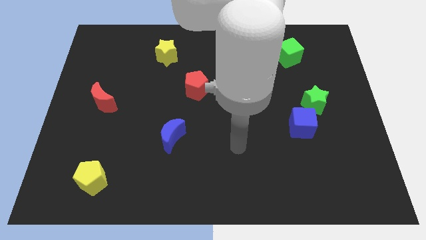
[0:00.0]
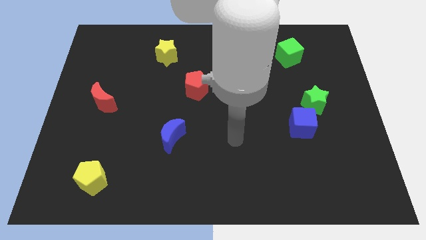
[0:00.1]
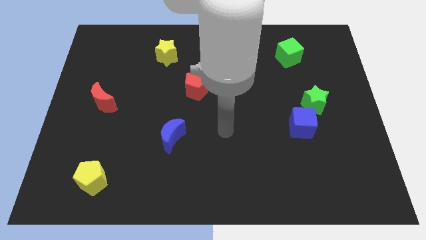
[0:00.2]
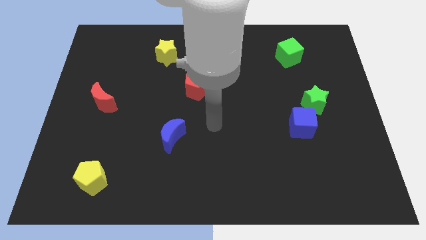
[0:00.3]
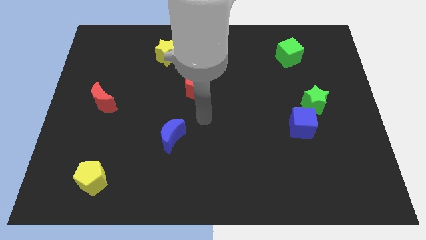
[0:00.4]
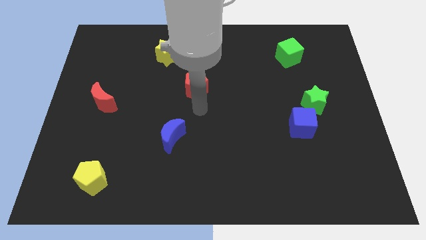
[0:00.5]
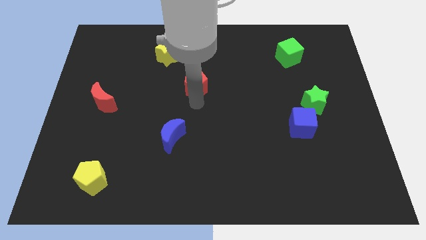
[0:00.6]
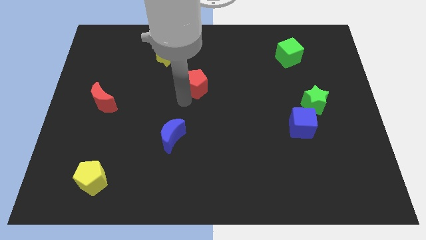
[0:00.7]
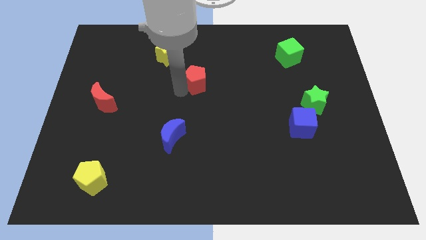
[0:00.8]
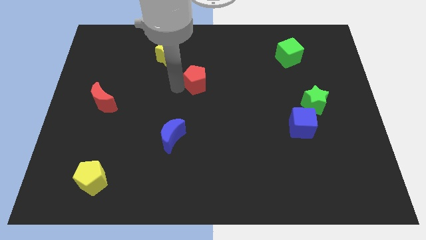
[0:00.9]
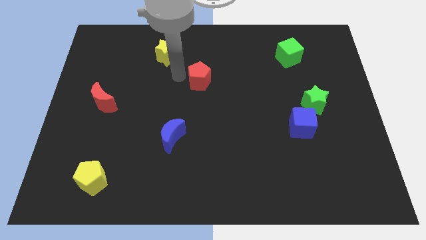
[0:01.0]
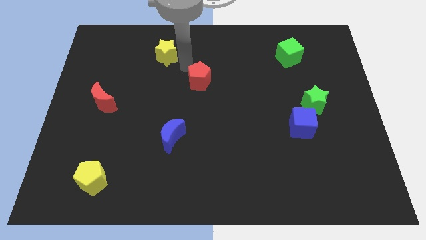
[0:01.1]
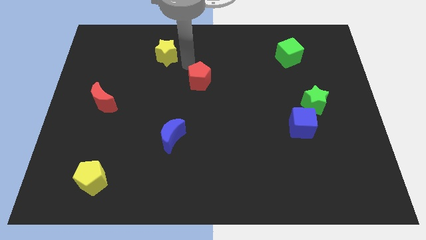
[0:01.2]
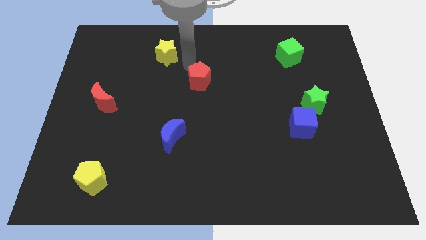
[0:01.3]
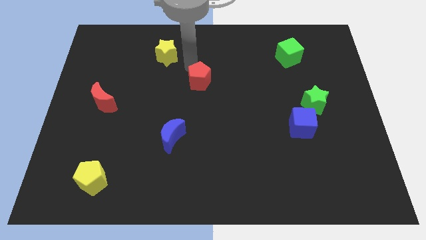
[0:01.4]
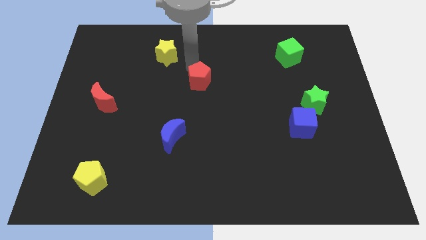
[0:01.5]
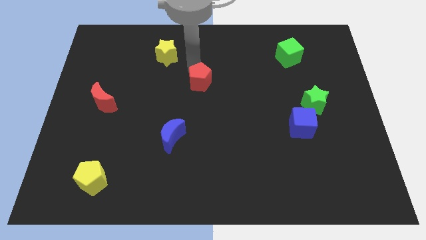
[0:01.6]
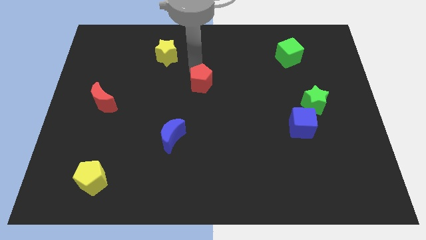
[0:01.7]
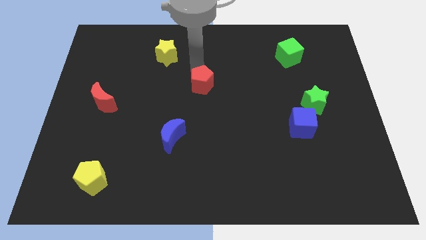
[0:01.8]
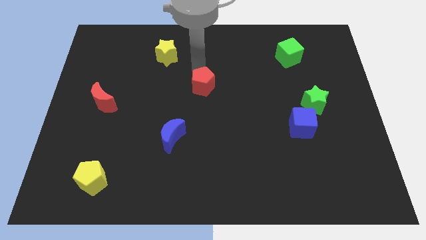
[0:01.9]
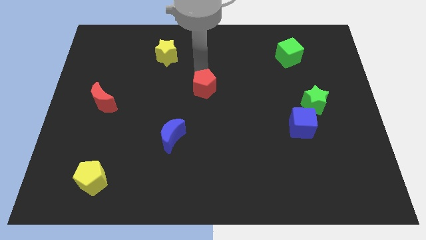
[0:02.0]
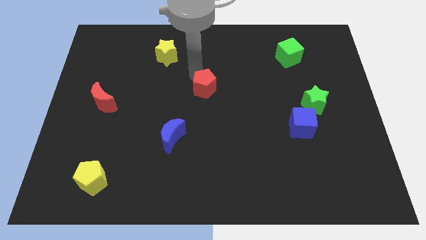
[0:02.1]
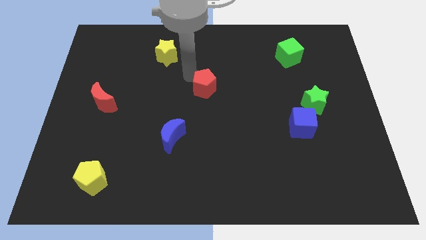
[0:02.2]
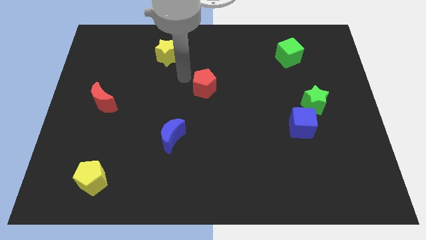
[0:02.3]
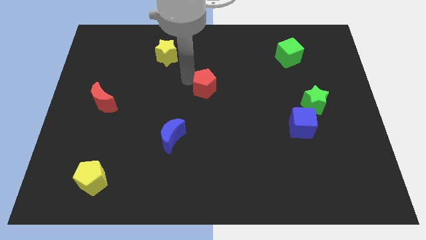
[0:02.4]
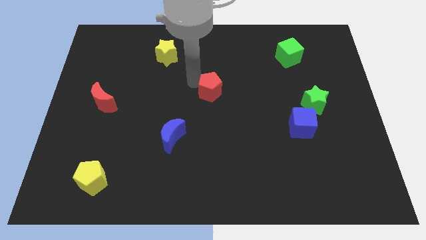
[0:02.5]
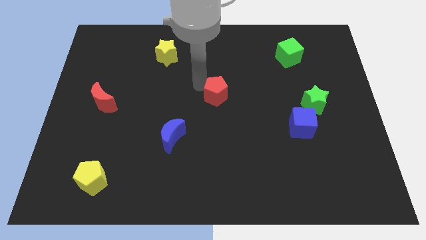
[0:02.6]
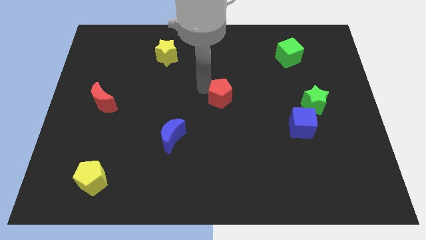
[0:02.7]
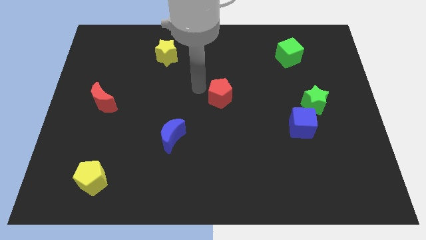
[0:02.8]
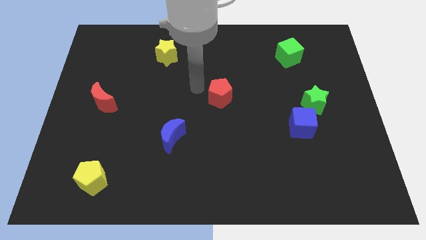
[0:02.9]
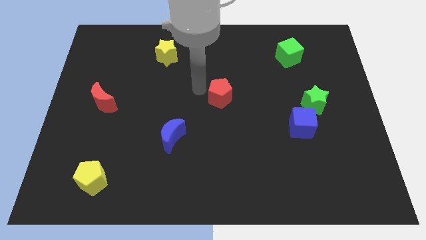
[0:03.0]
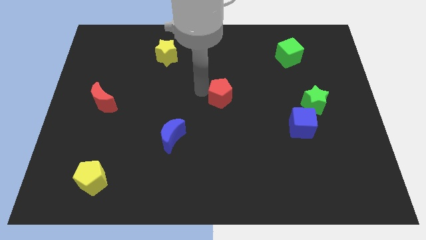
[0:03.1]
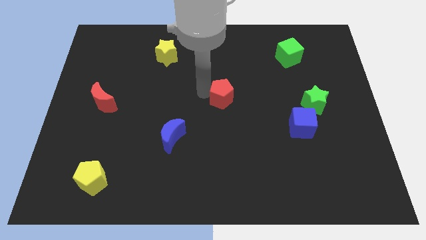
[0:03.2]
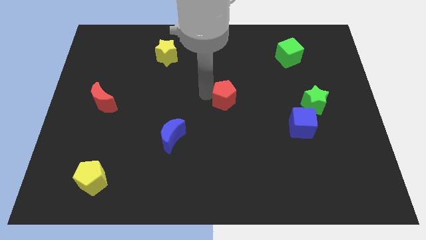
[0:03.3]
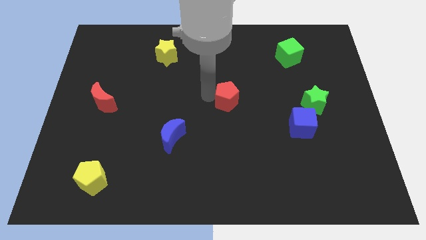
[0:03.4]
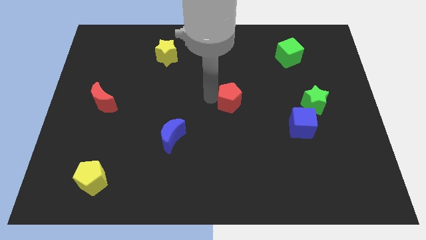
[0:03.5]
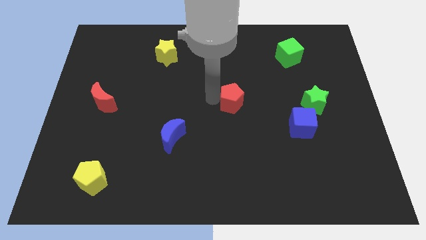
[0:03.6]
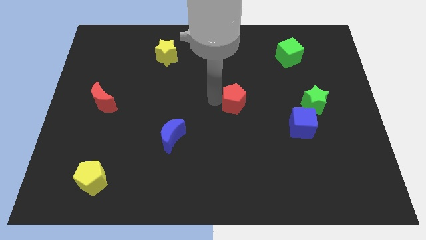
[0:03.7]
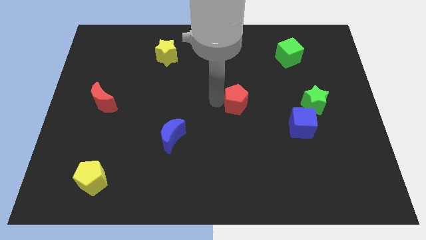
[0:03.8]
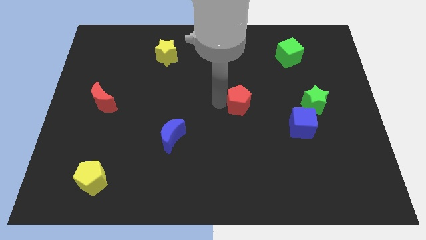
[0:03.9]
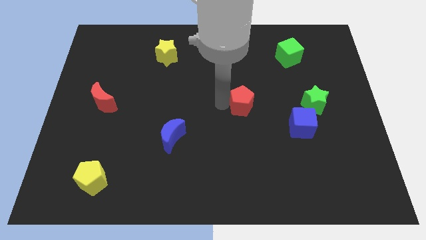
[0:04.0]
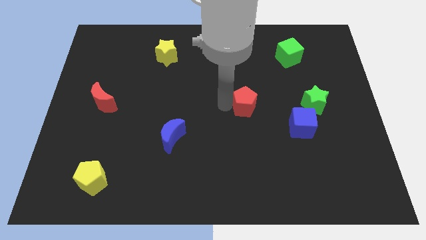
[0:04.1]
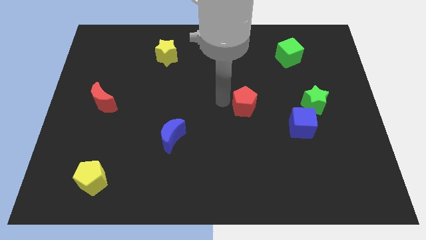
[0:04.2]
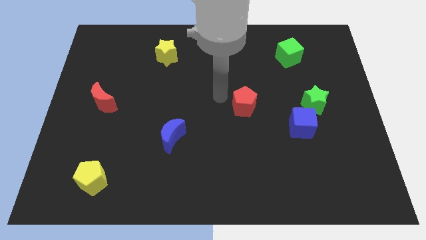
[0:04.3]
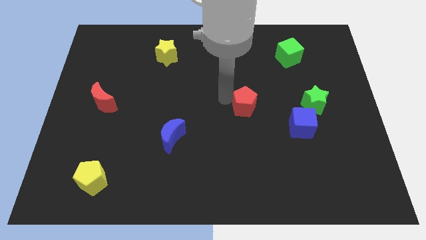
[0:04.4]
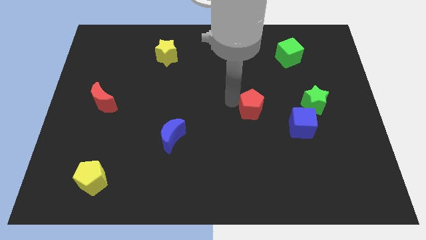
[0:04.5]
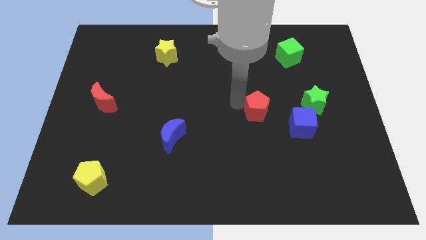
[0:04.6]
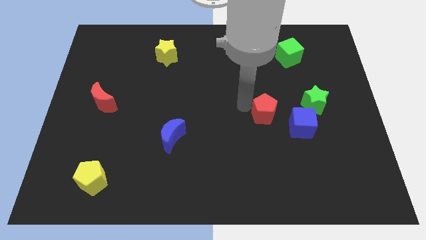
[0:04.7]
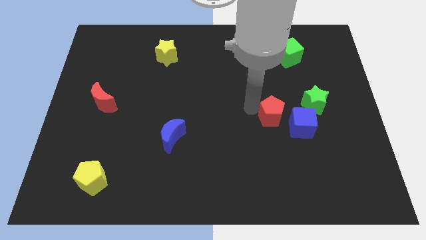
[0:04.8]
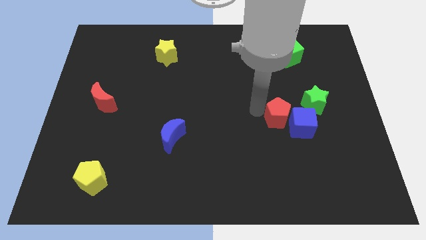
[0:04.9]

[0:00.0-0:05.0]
move the red pentagon close to the blue cube

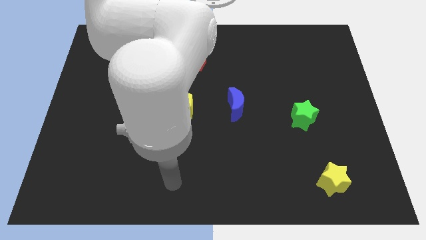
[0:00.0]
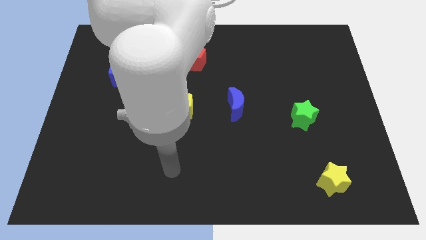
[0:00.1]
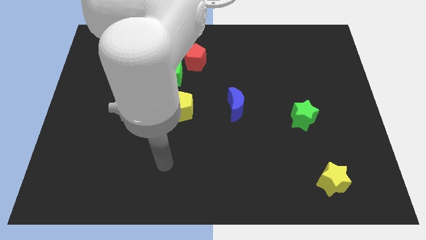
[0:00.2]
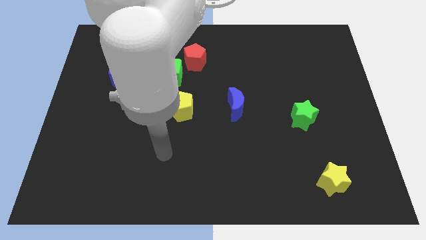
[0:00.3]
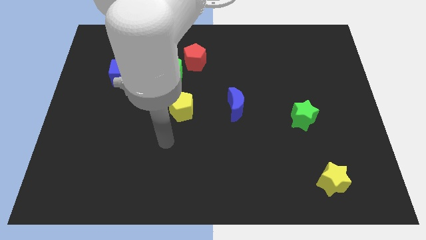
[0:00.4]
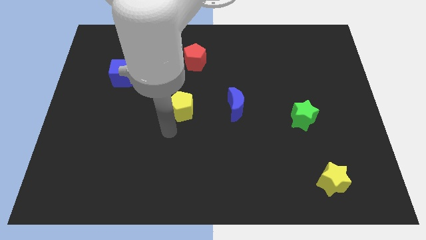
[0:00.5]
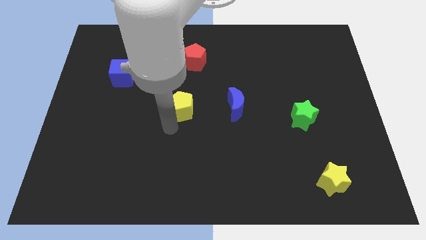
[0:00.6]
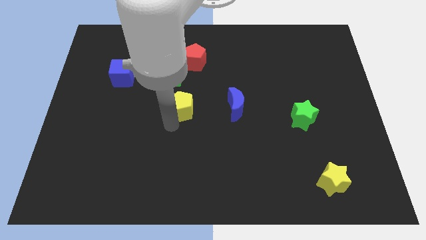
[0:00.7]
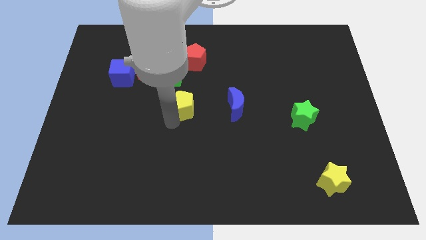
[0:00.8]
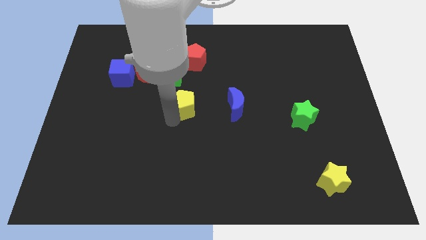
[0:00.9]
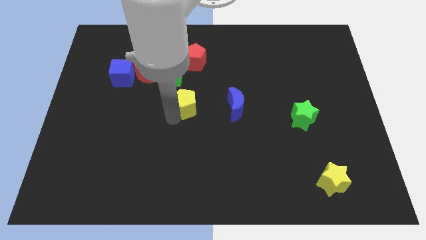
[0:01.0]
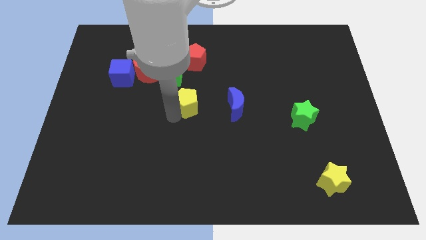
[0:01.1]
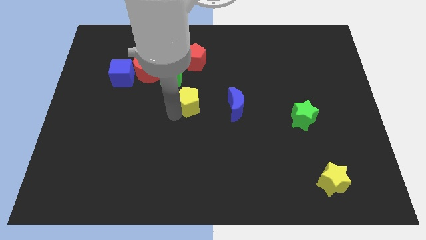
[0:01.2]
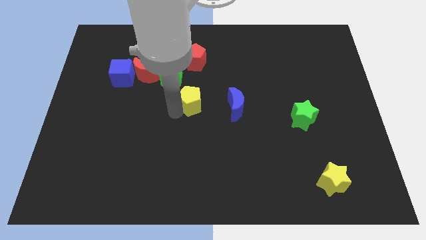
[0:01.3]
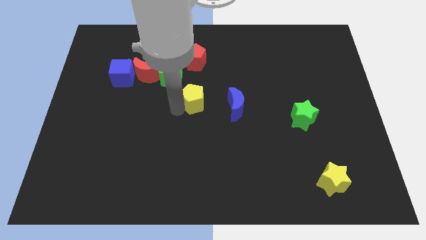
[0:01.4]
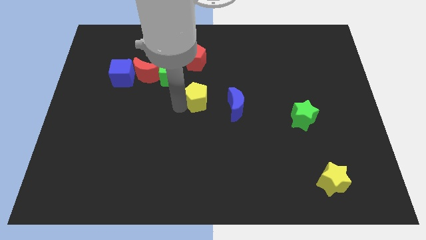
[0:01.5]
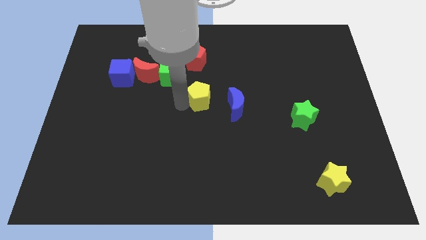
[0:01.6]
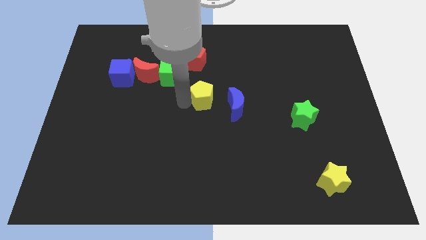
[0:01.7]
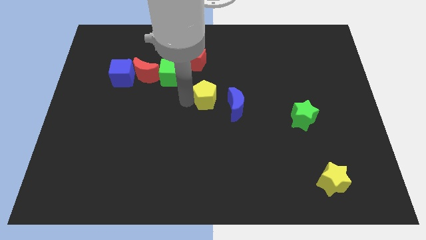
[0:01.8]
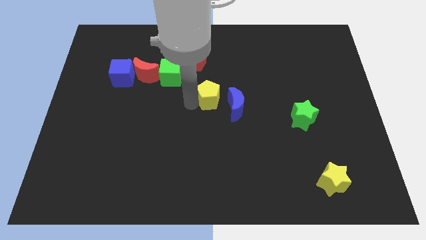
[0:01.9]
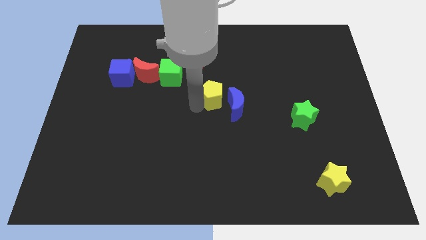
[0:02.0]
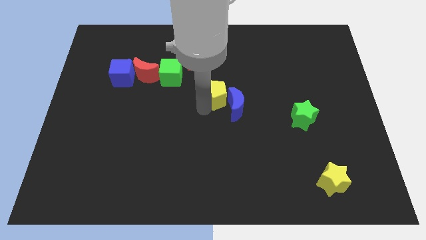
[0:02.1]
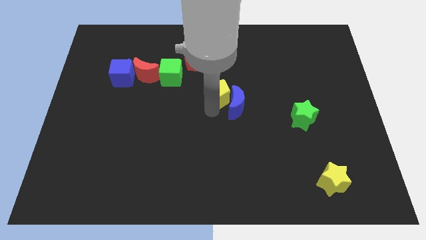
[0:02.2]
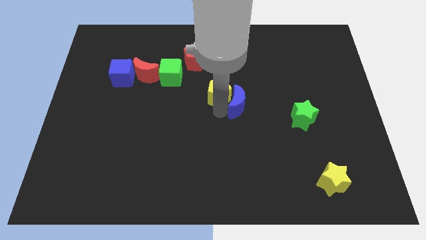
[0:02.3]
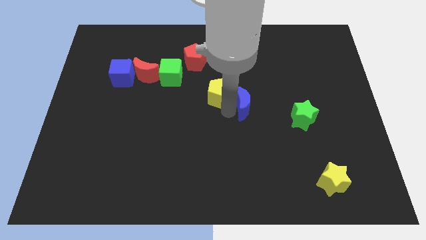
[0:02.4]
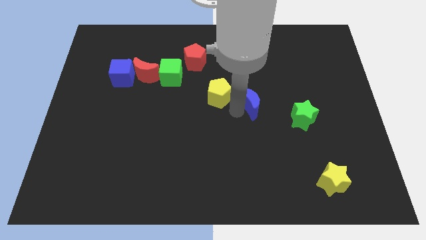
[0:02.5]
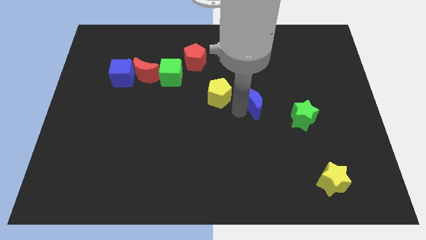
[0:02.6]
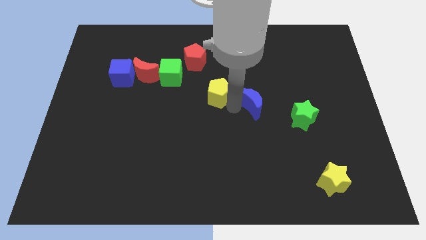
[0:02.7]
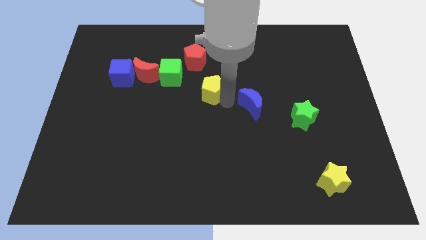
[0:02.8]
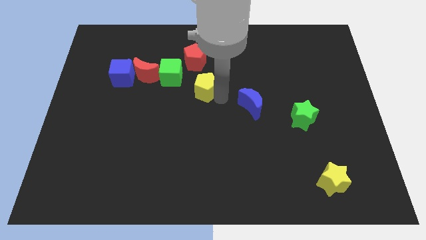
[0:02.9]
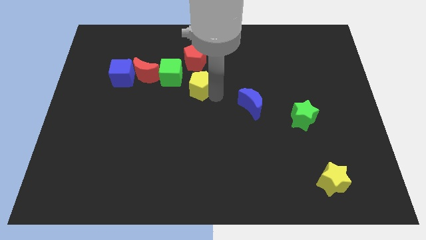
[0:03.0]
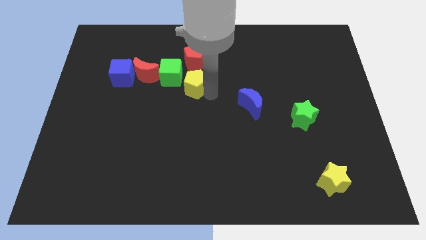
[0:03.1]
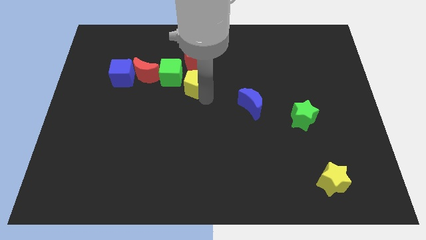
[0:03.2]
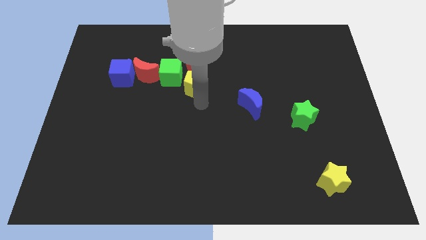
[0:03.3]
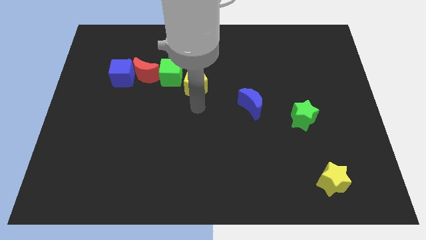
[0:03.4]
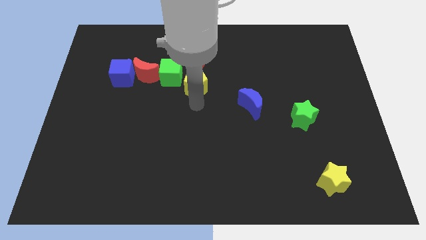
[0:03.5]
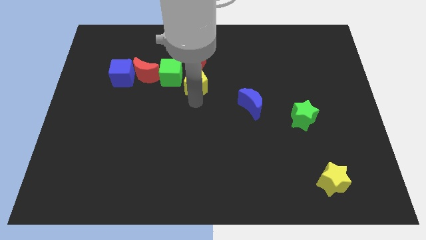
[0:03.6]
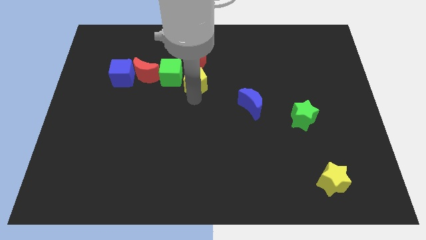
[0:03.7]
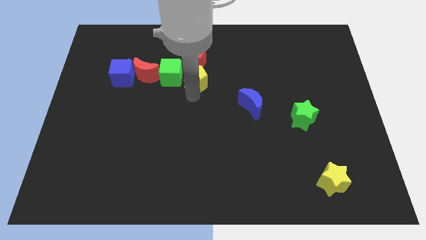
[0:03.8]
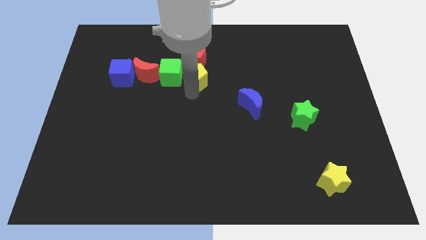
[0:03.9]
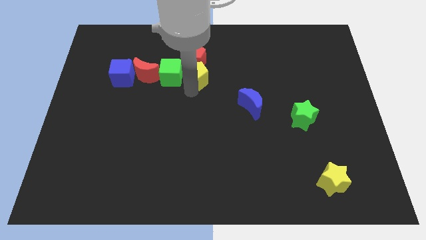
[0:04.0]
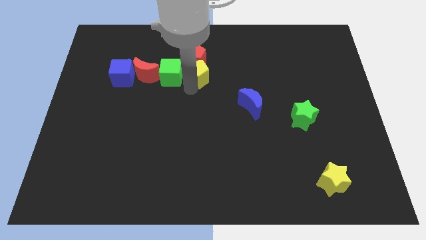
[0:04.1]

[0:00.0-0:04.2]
move the yellow pentagon next to the red pentagon
